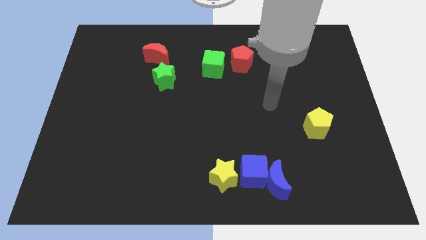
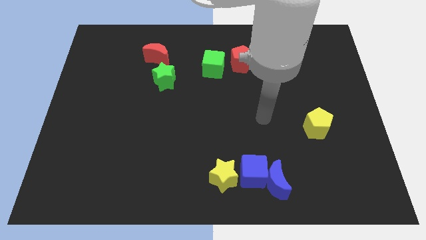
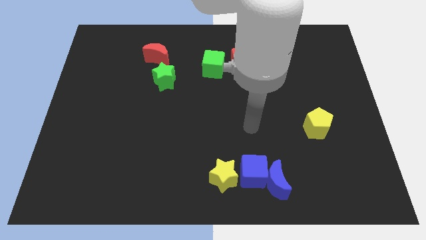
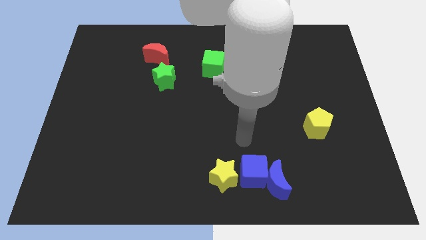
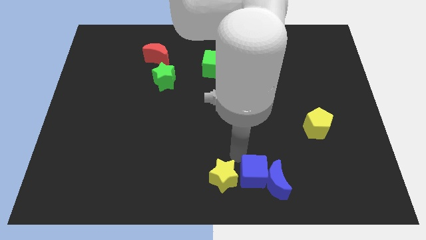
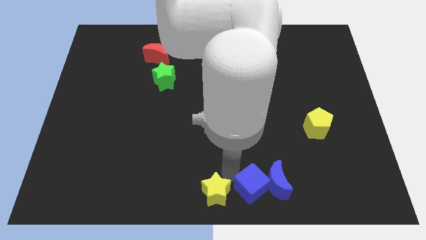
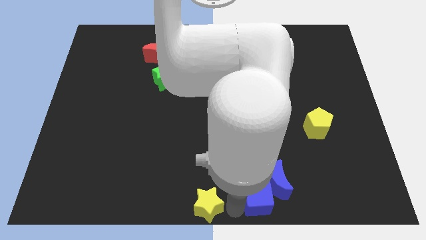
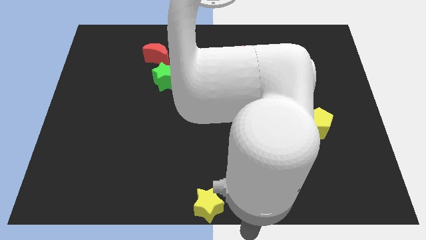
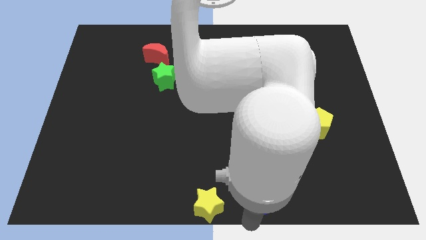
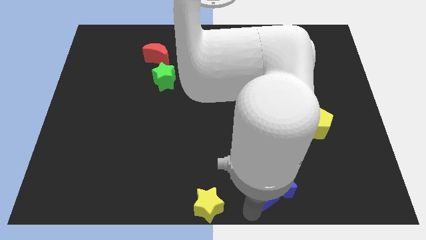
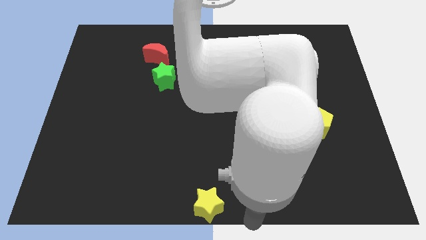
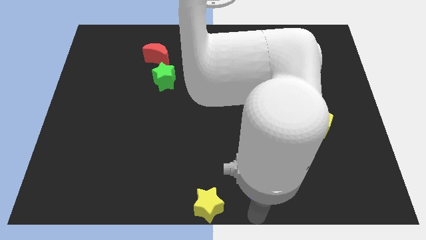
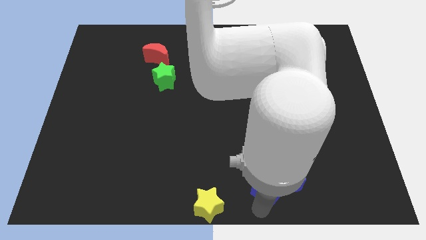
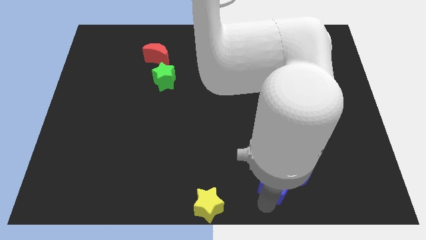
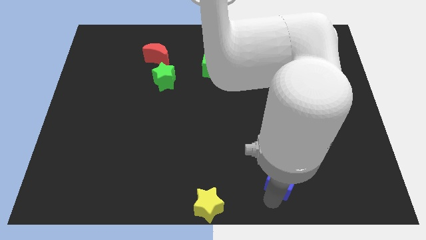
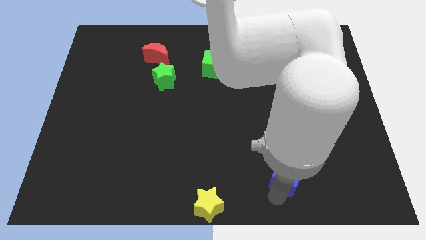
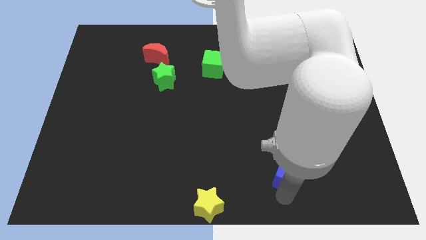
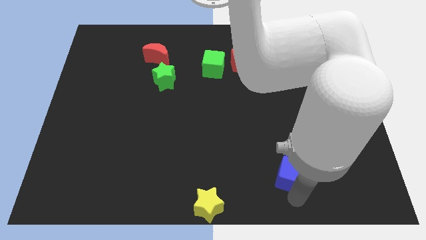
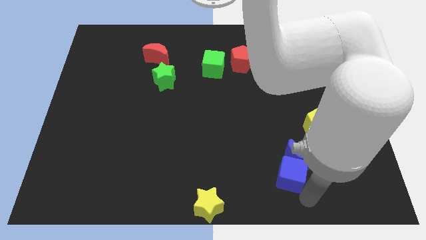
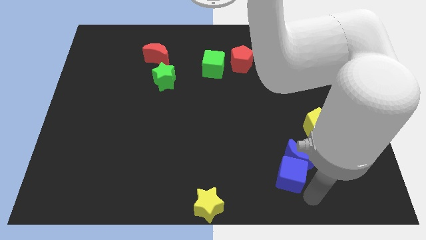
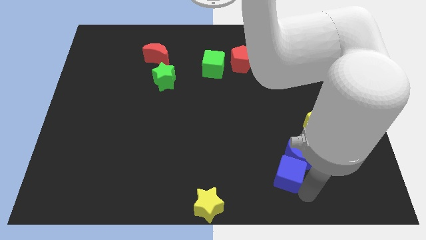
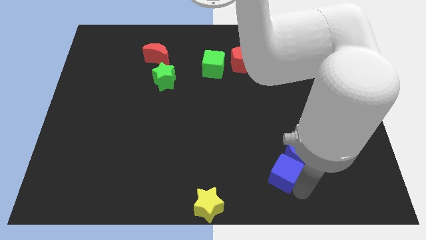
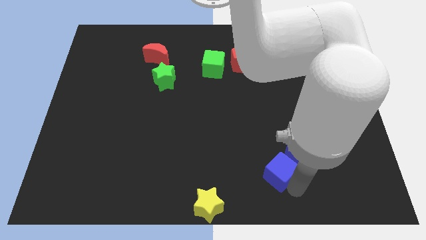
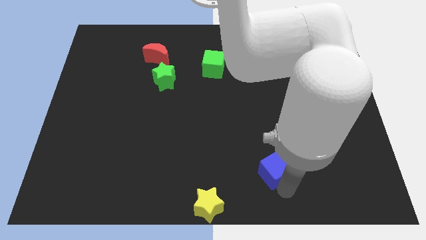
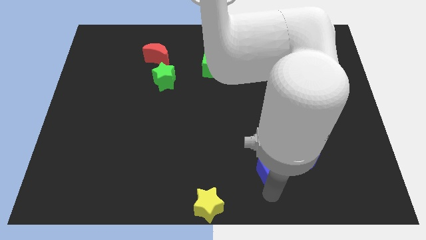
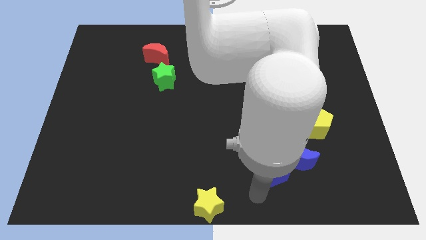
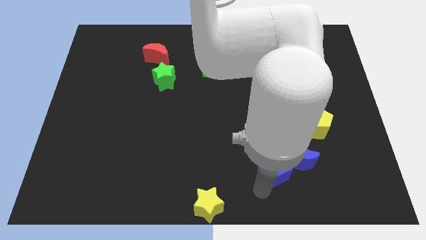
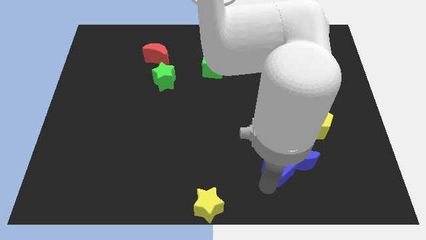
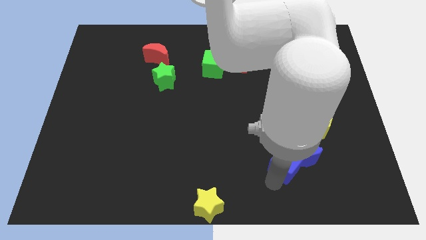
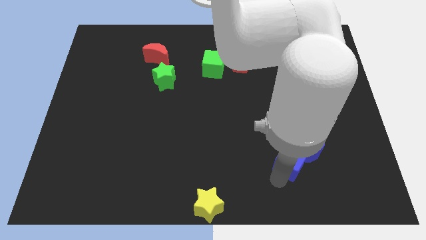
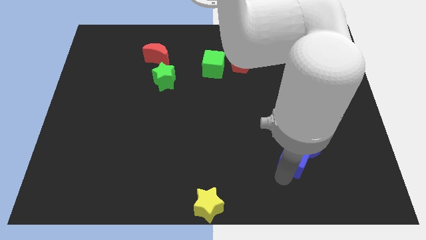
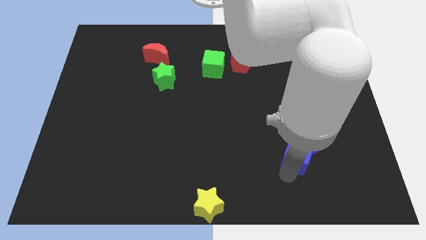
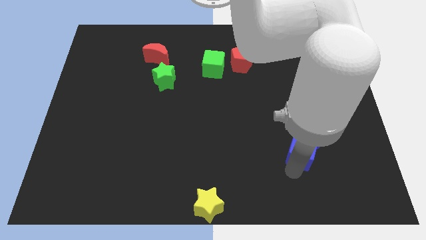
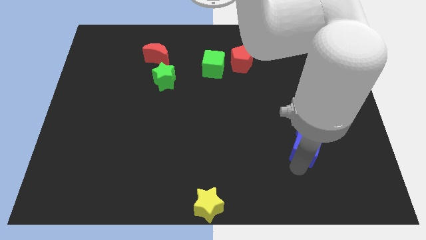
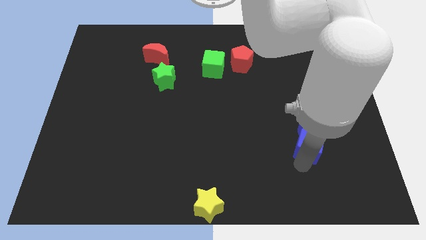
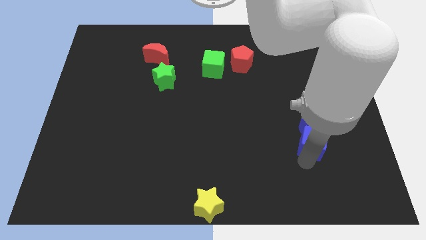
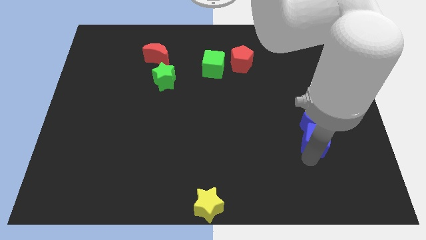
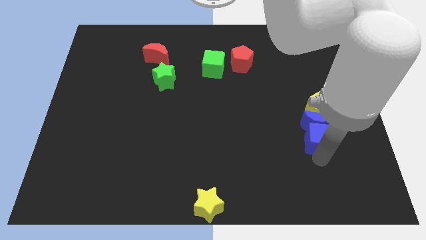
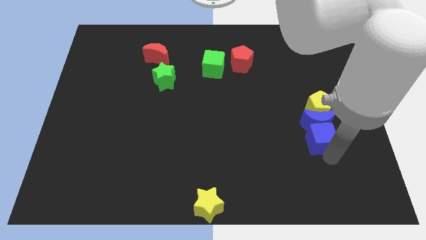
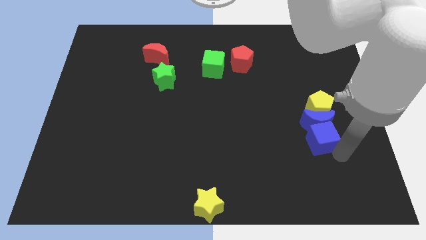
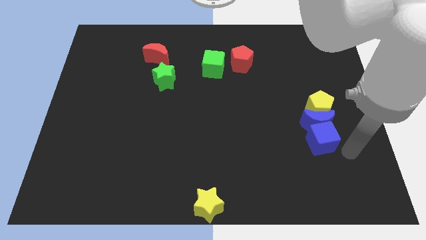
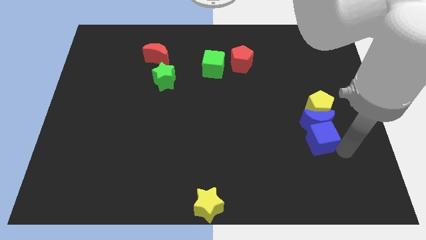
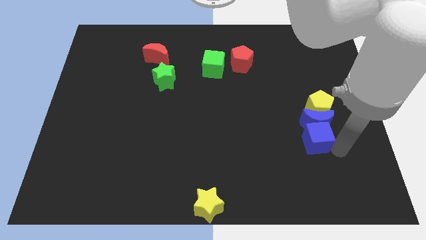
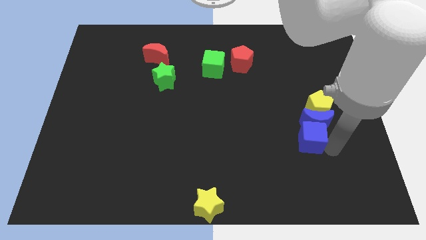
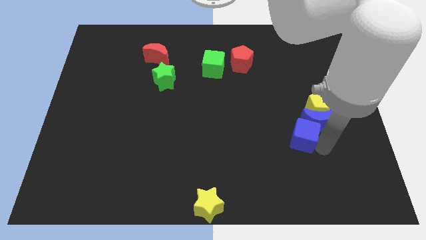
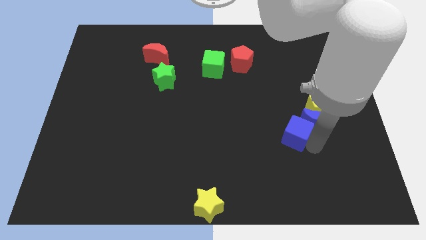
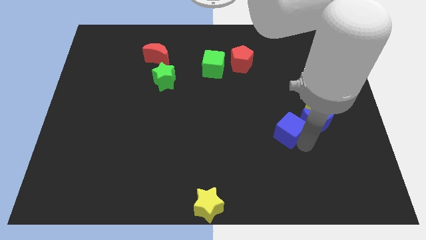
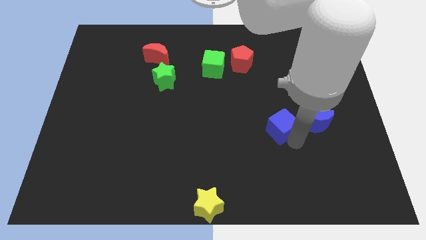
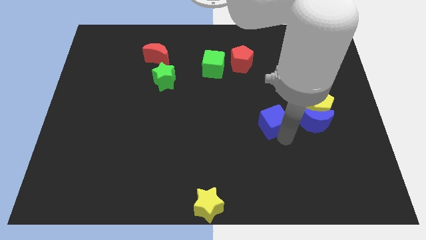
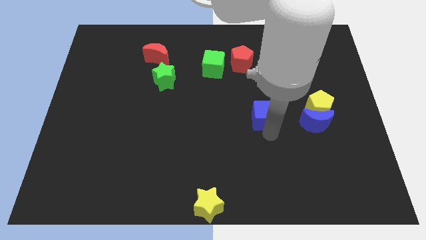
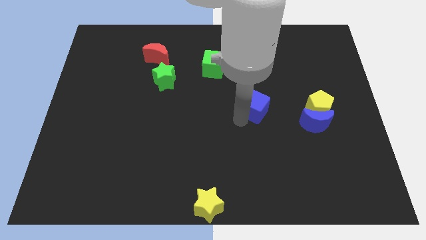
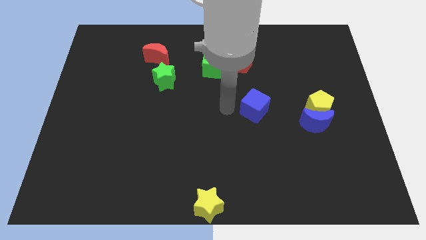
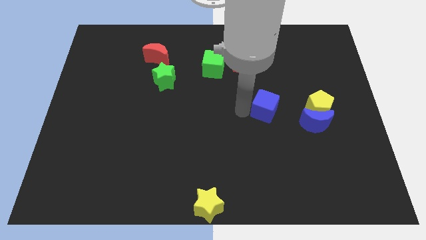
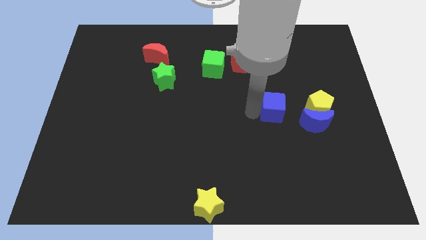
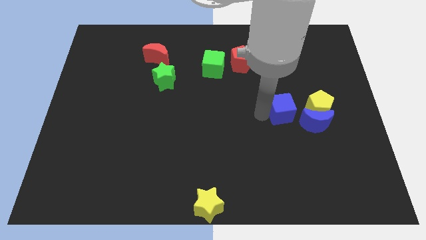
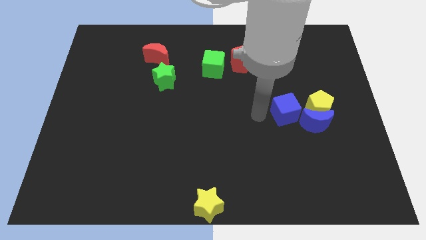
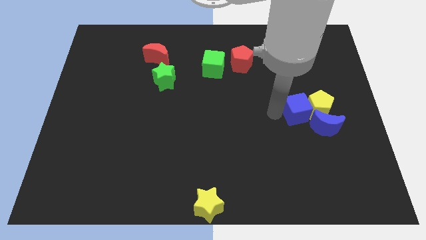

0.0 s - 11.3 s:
push the blue cube to the yellow pentagon

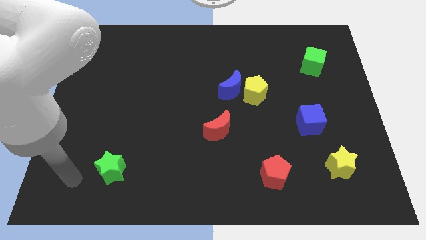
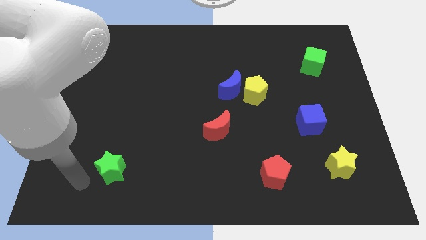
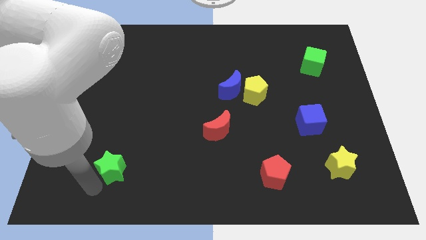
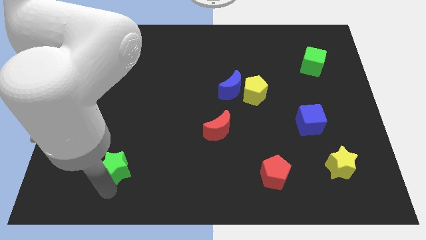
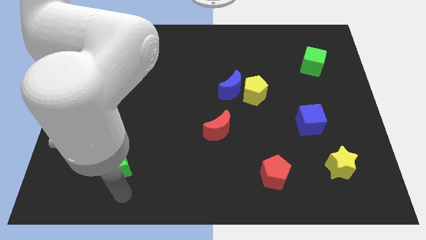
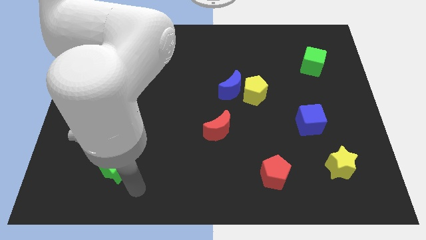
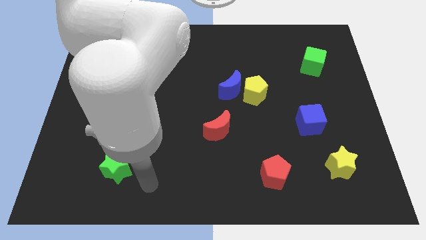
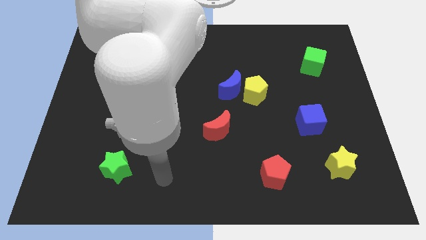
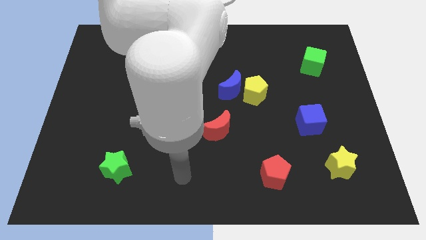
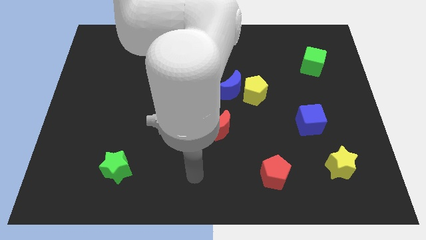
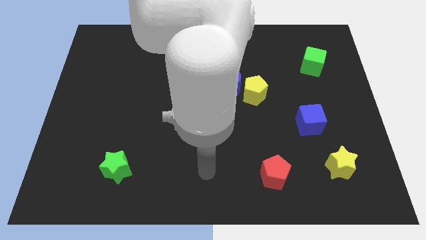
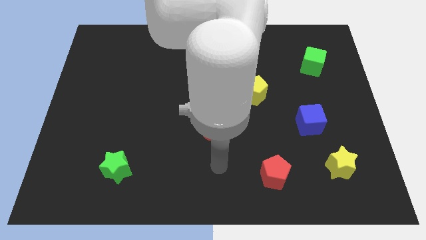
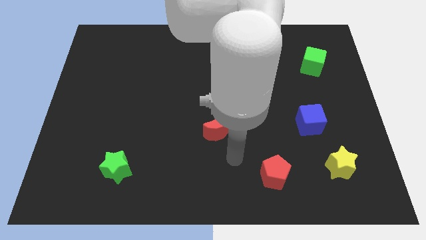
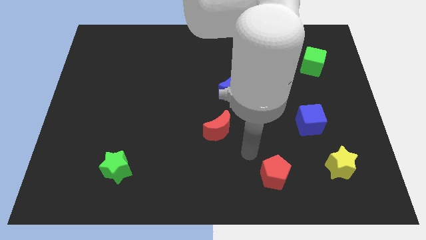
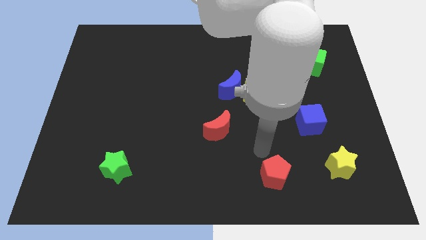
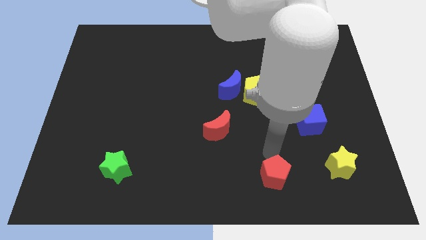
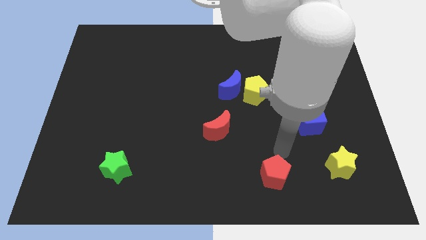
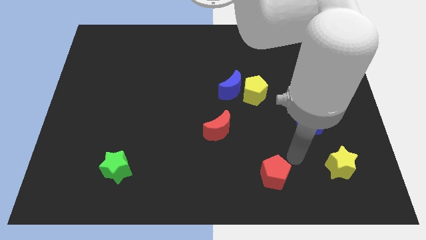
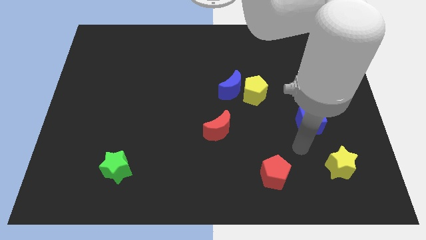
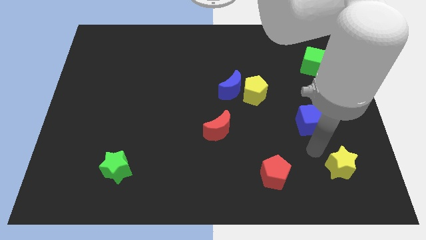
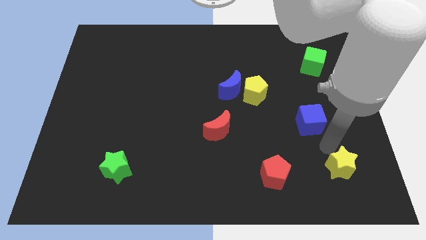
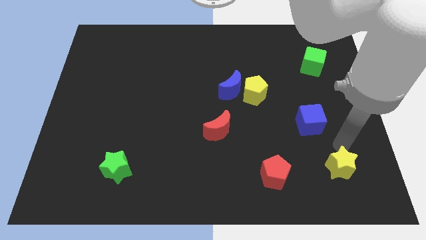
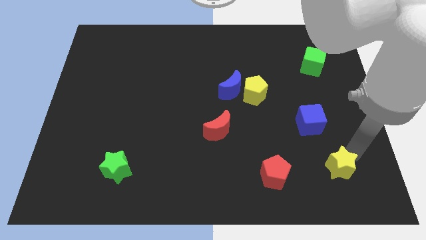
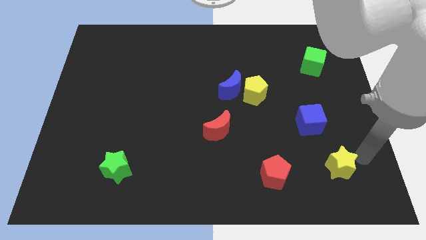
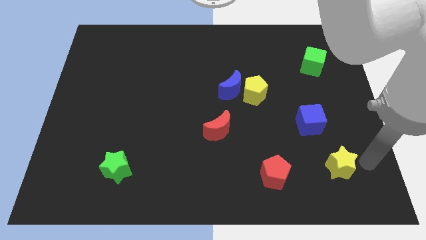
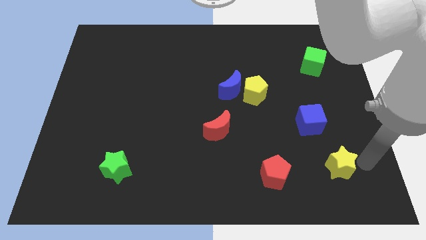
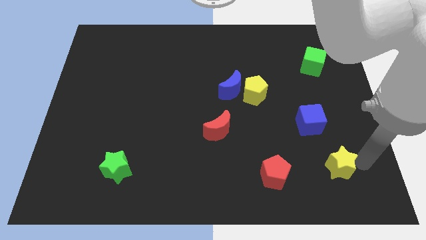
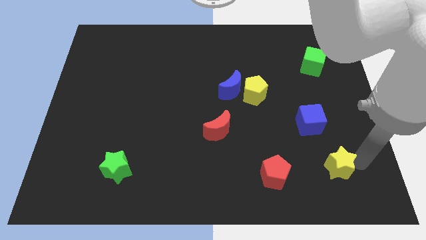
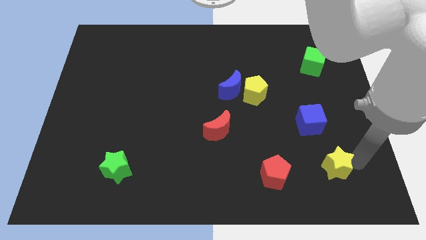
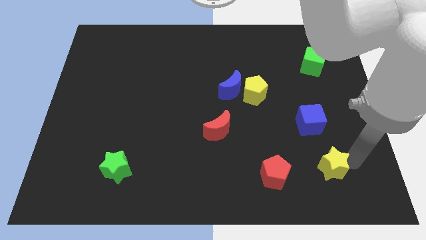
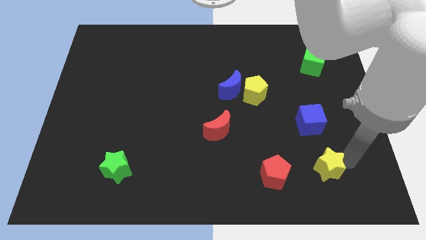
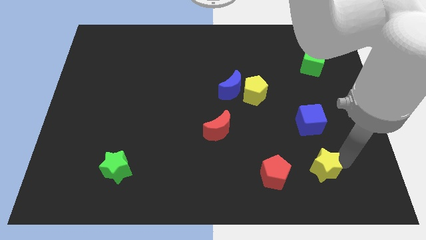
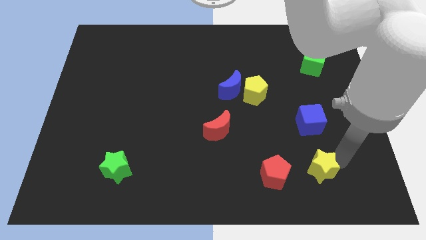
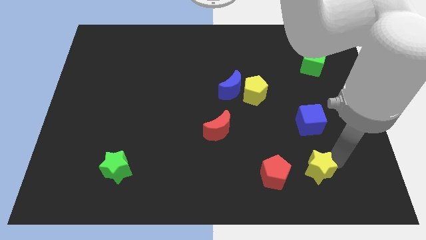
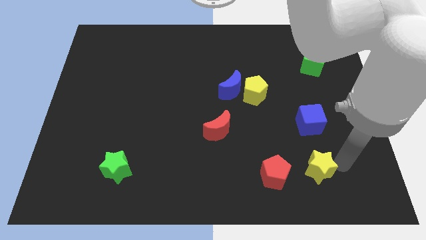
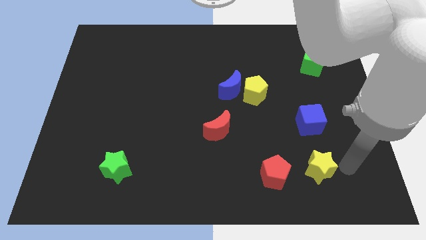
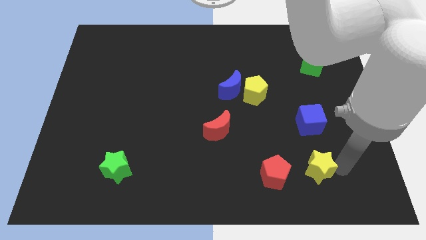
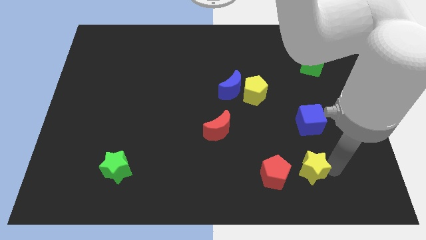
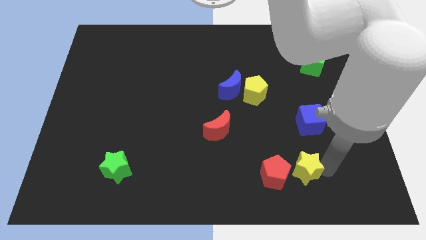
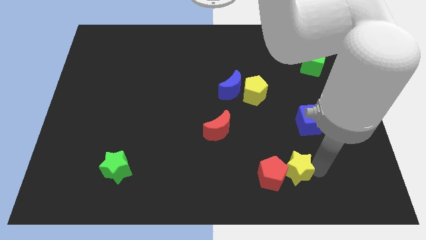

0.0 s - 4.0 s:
put the yellow star towards the red pentagon
